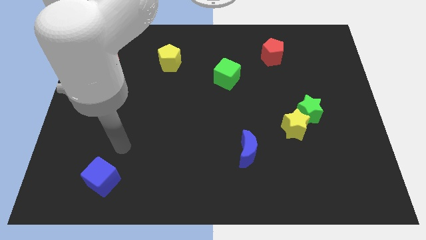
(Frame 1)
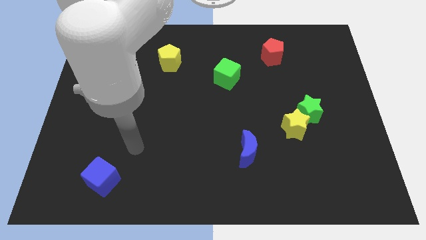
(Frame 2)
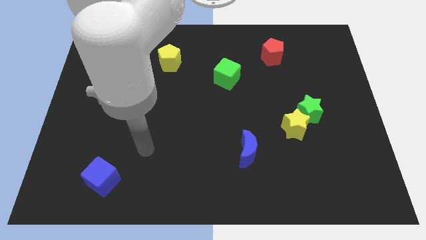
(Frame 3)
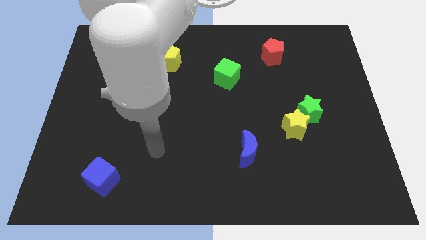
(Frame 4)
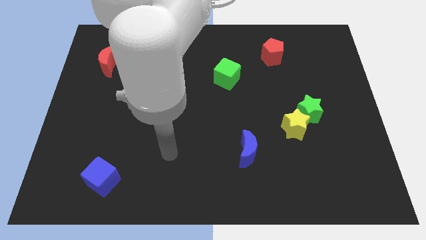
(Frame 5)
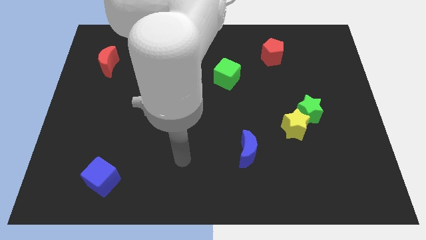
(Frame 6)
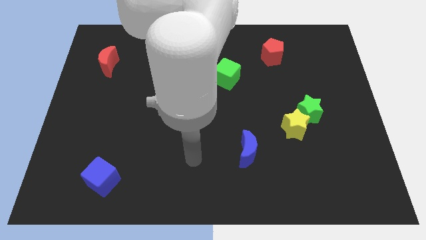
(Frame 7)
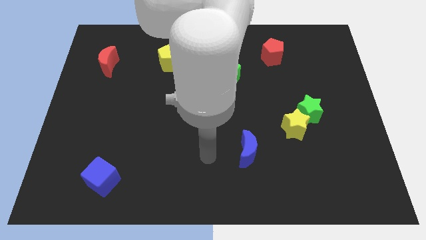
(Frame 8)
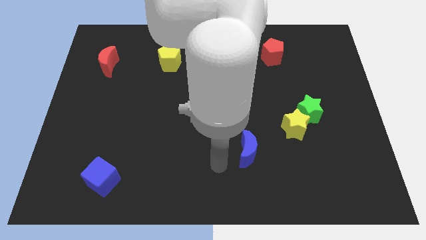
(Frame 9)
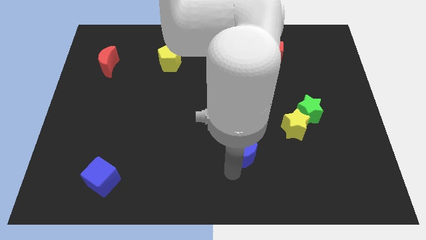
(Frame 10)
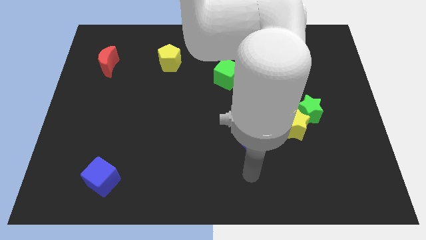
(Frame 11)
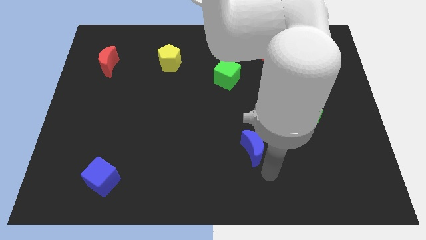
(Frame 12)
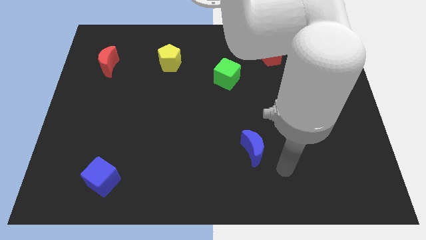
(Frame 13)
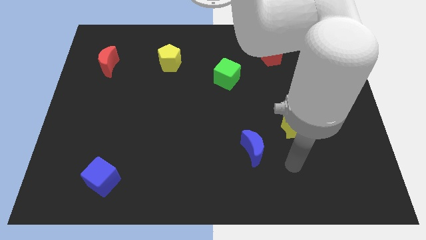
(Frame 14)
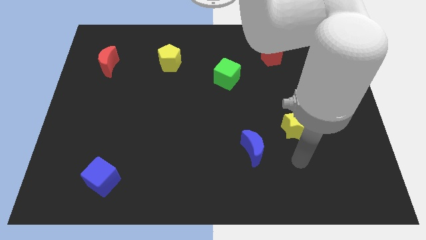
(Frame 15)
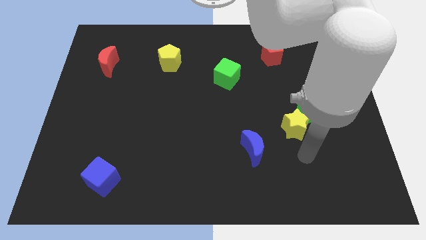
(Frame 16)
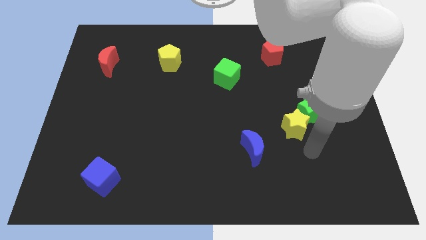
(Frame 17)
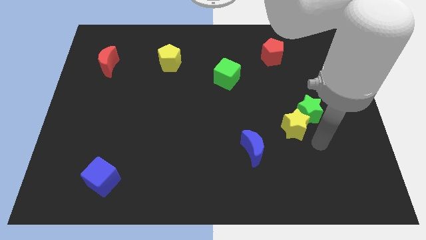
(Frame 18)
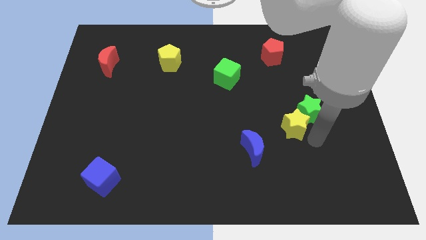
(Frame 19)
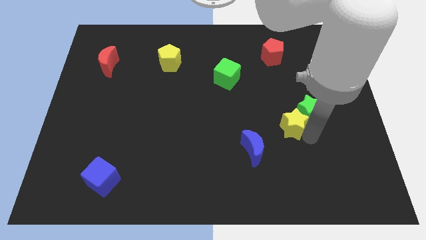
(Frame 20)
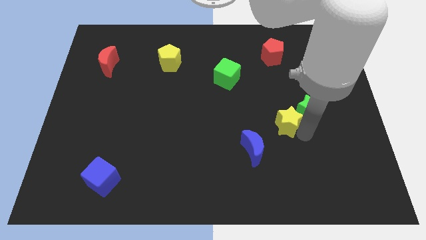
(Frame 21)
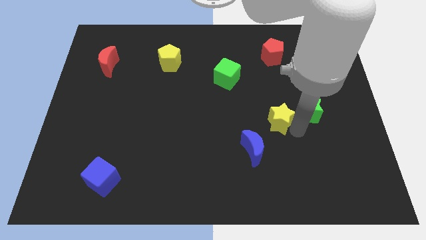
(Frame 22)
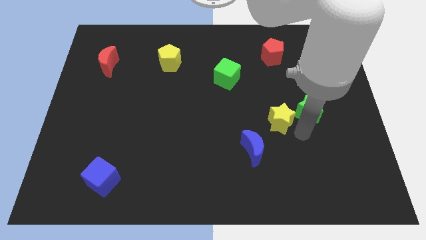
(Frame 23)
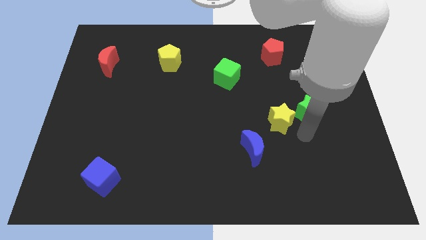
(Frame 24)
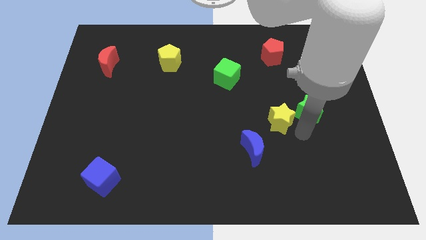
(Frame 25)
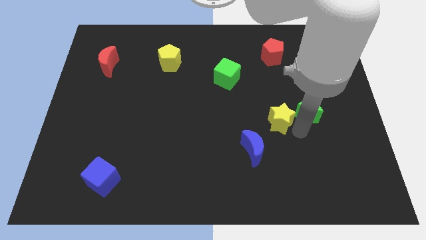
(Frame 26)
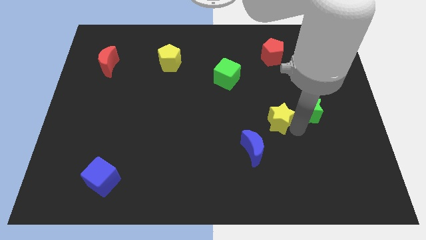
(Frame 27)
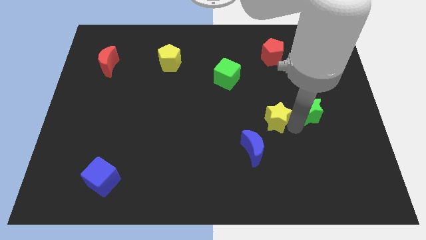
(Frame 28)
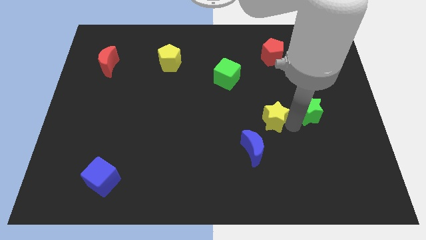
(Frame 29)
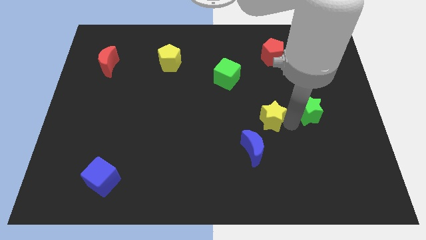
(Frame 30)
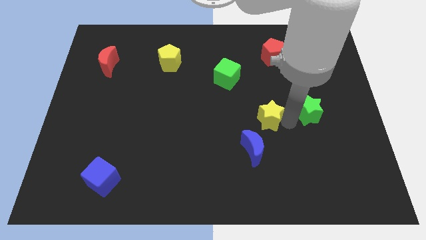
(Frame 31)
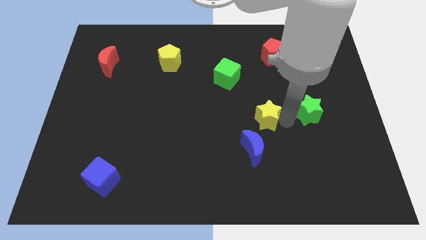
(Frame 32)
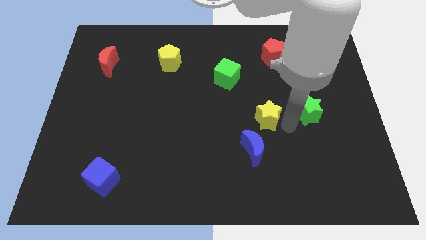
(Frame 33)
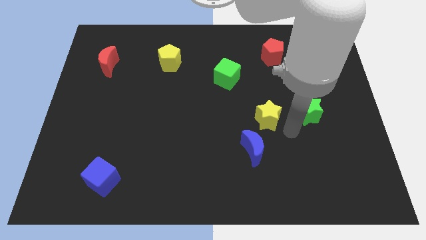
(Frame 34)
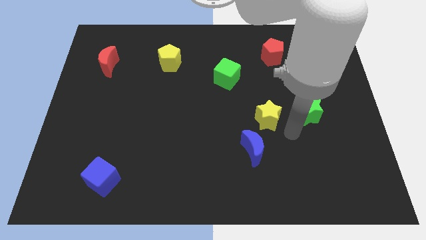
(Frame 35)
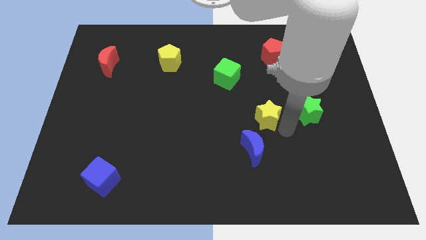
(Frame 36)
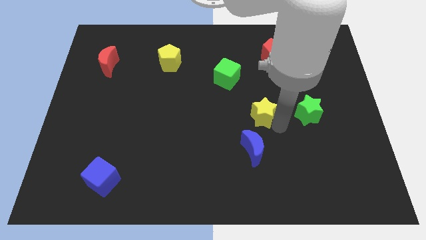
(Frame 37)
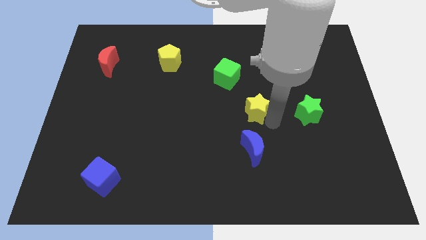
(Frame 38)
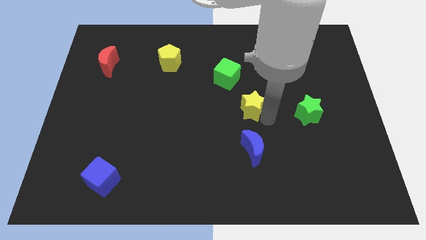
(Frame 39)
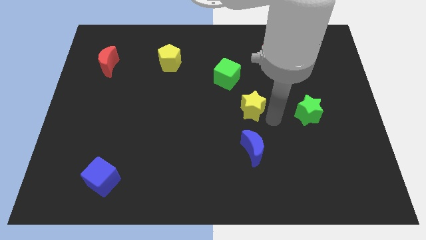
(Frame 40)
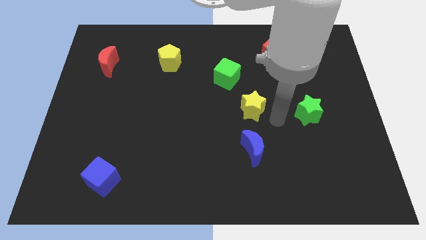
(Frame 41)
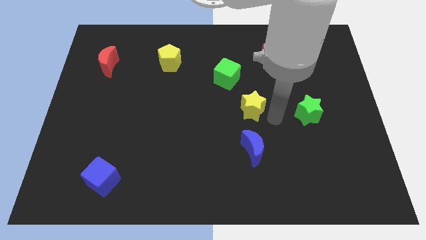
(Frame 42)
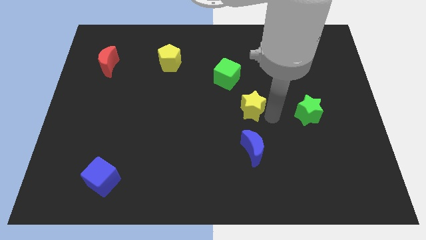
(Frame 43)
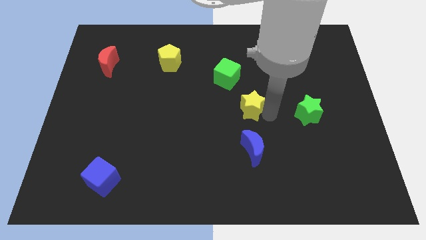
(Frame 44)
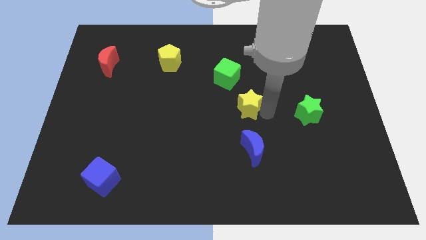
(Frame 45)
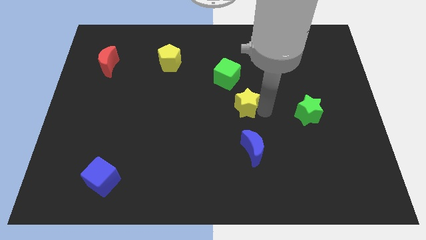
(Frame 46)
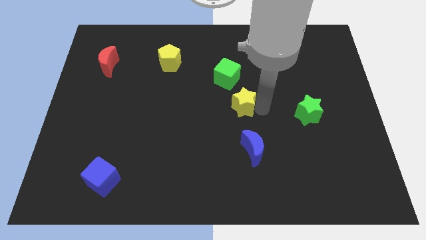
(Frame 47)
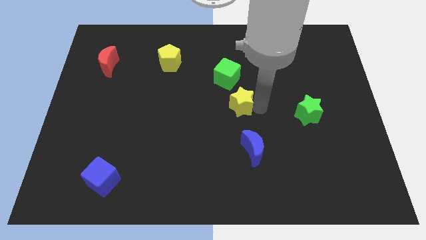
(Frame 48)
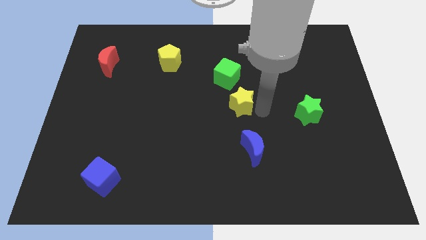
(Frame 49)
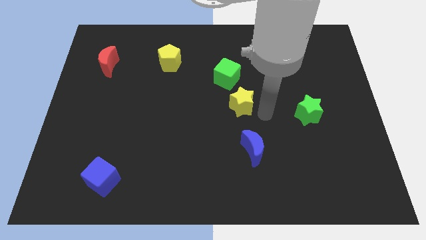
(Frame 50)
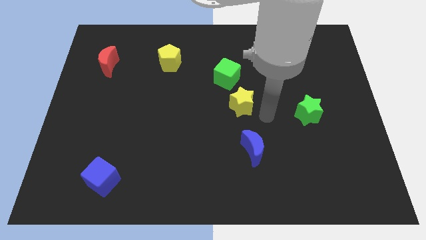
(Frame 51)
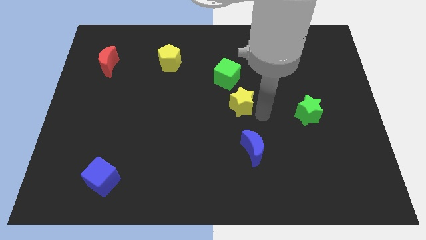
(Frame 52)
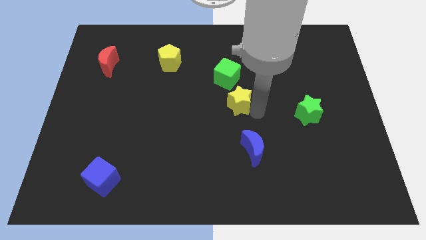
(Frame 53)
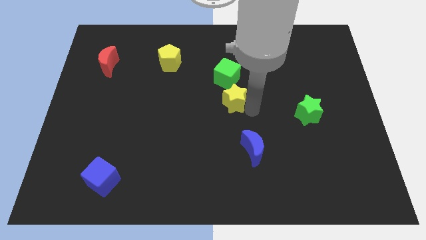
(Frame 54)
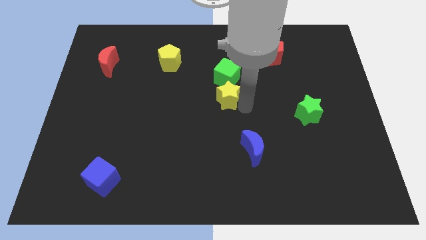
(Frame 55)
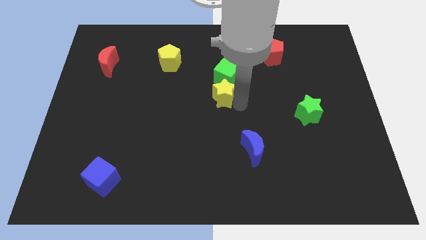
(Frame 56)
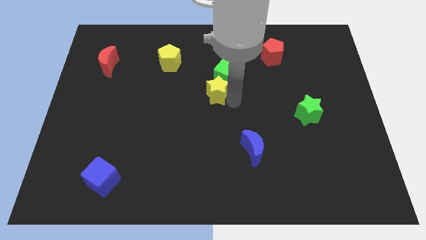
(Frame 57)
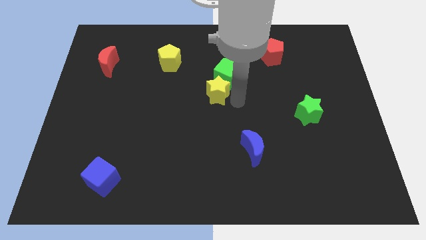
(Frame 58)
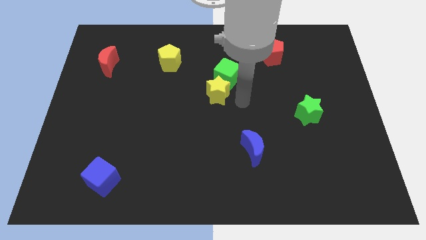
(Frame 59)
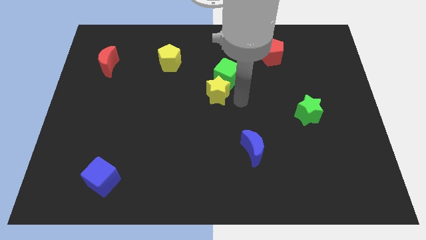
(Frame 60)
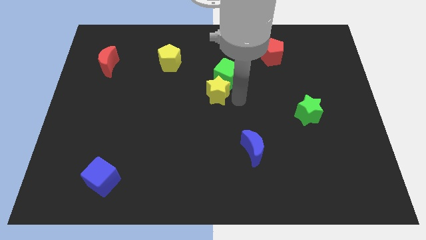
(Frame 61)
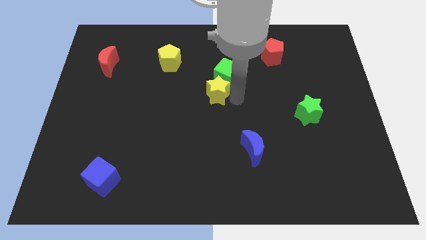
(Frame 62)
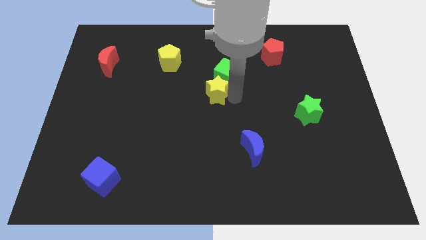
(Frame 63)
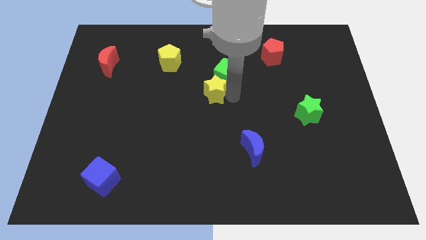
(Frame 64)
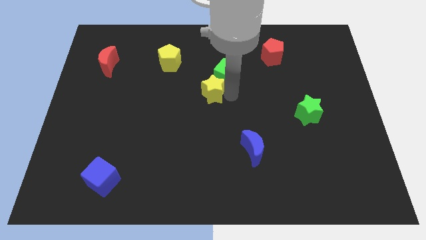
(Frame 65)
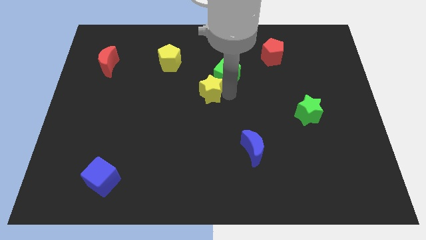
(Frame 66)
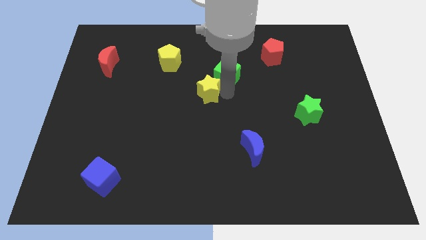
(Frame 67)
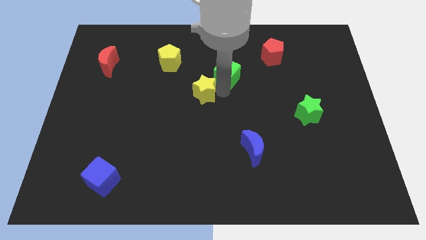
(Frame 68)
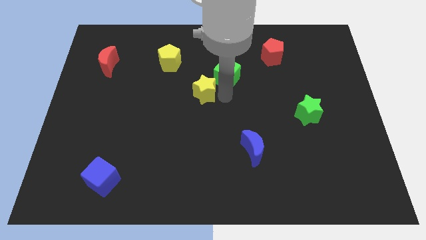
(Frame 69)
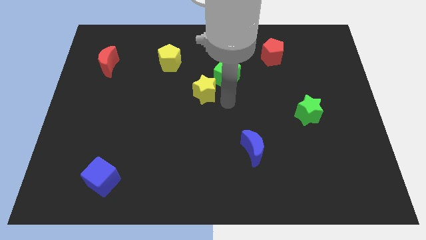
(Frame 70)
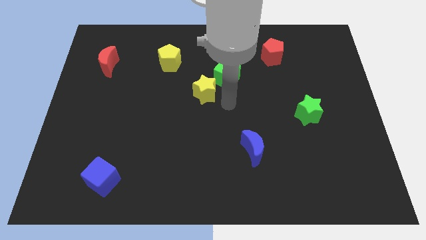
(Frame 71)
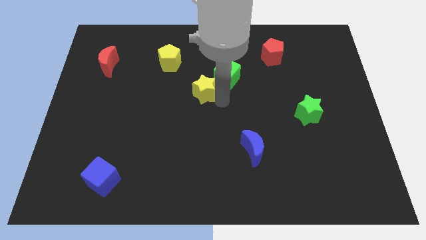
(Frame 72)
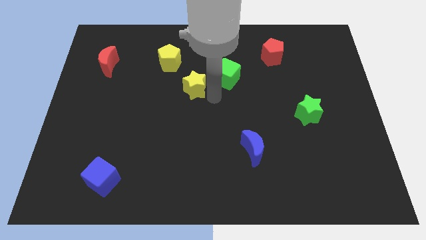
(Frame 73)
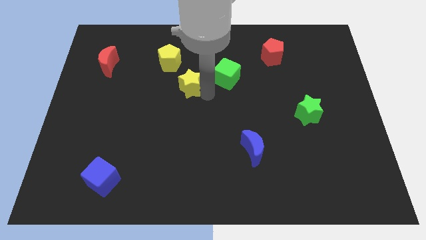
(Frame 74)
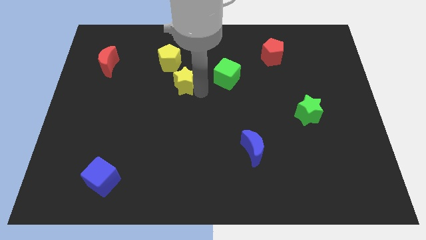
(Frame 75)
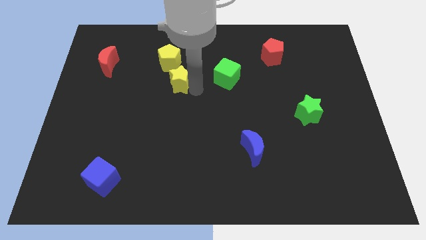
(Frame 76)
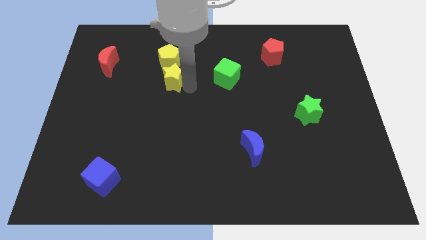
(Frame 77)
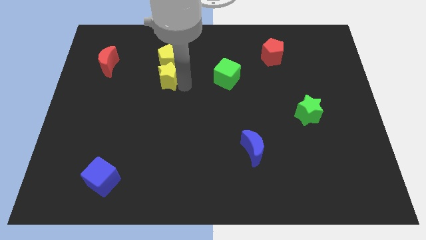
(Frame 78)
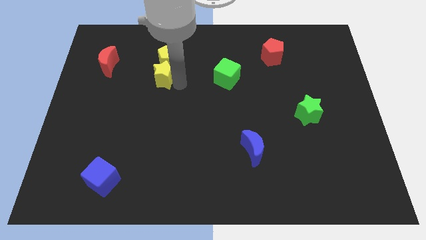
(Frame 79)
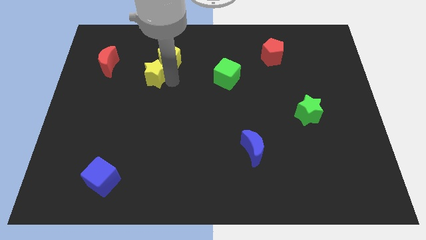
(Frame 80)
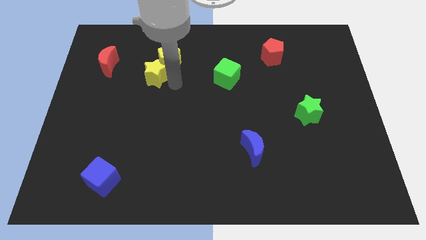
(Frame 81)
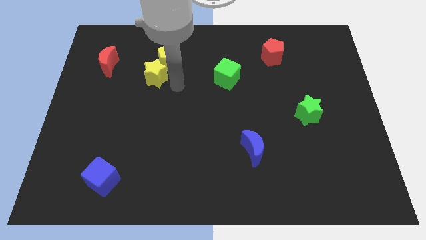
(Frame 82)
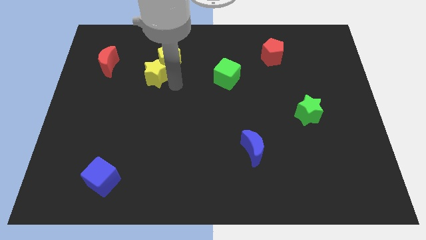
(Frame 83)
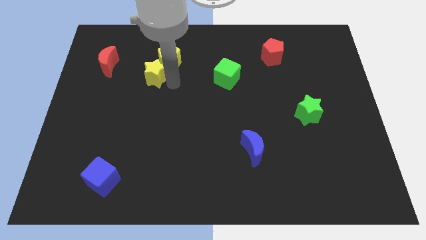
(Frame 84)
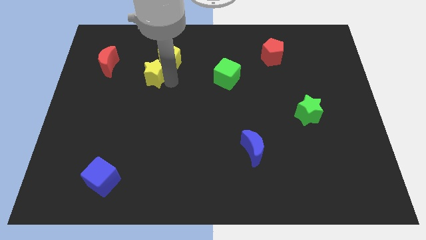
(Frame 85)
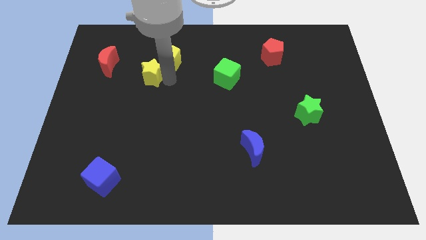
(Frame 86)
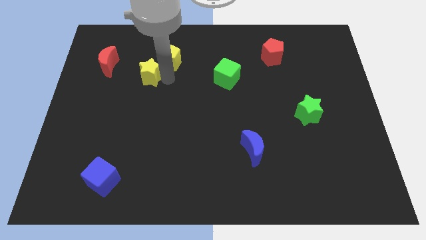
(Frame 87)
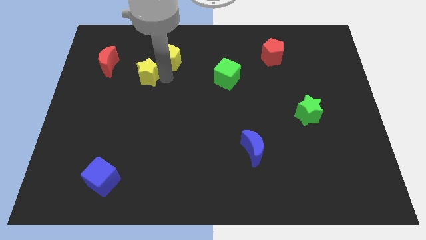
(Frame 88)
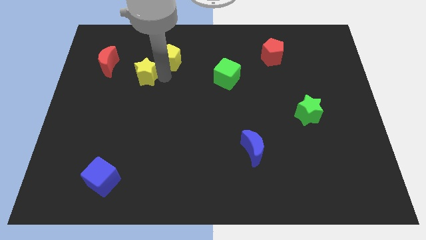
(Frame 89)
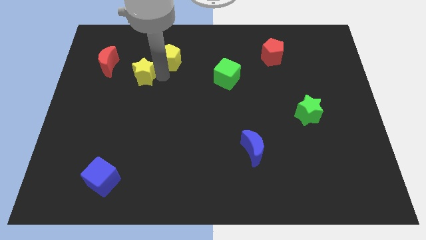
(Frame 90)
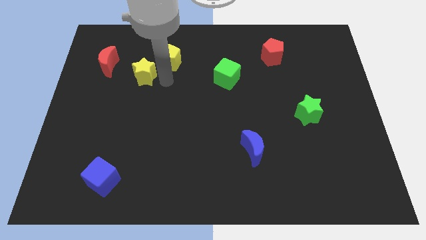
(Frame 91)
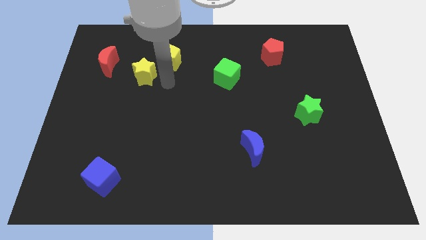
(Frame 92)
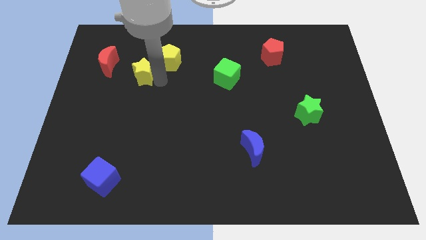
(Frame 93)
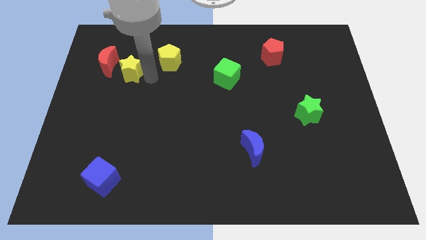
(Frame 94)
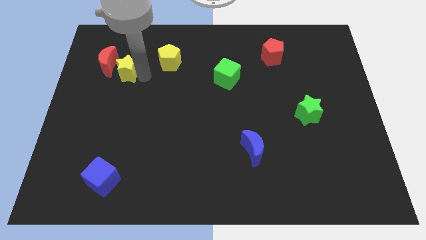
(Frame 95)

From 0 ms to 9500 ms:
slide the yellow star to the red moon
